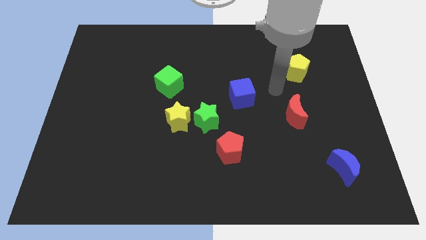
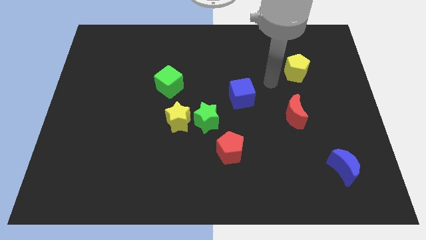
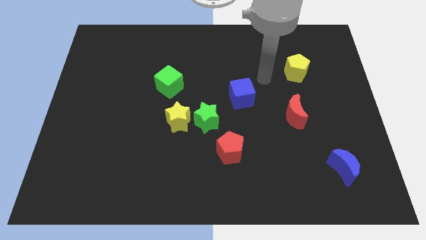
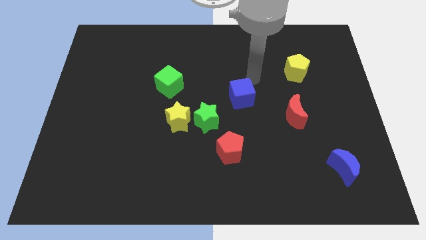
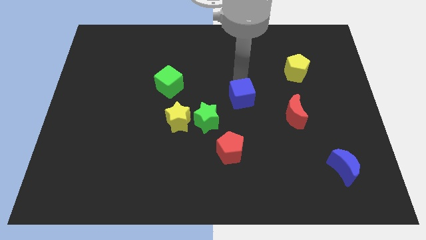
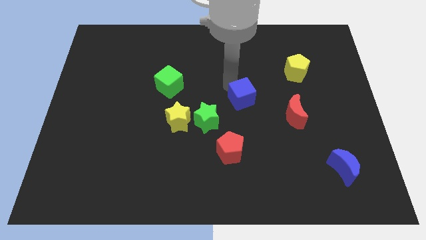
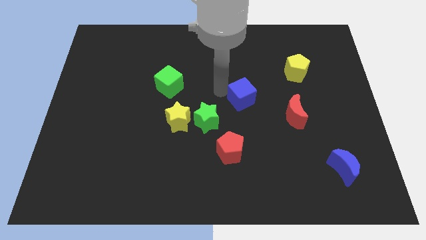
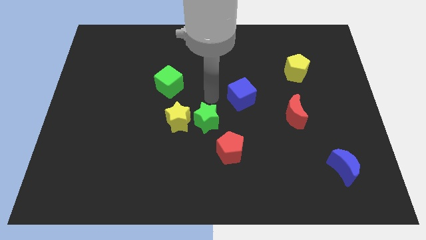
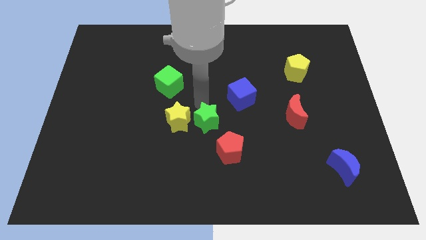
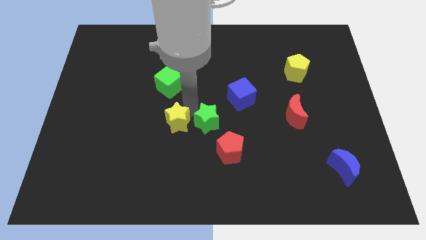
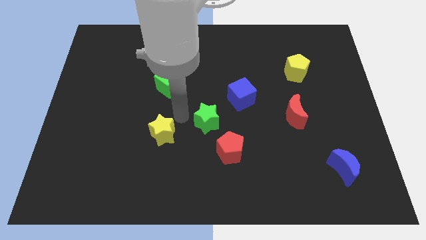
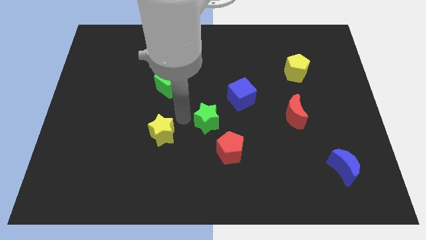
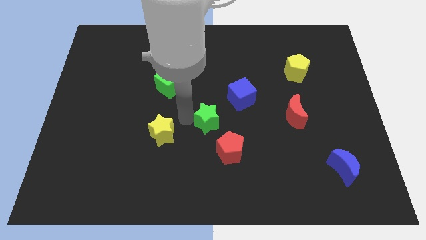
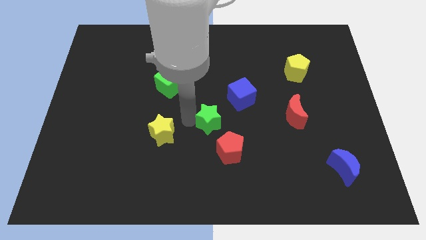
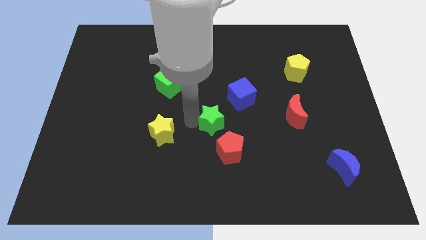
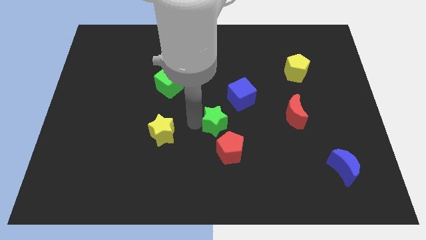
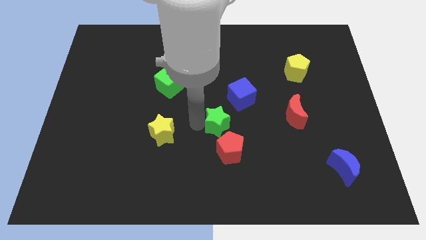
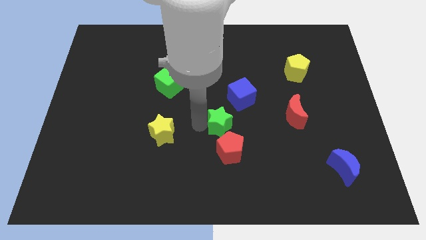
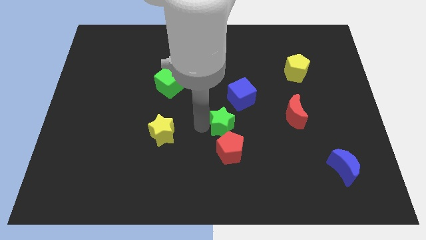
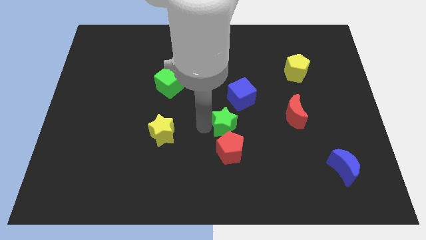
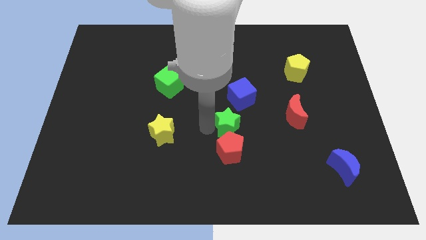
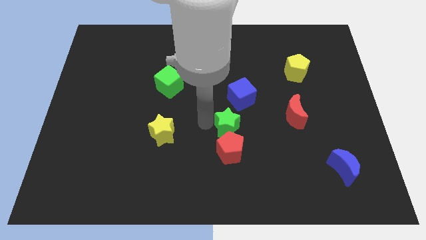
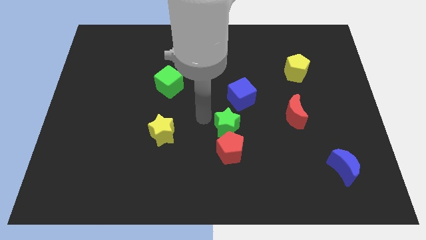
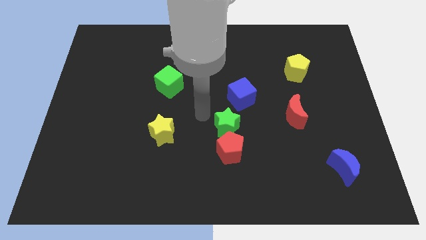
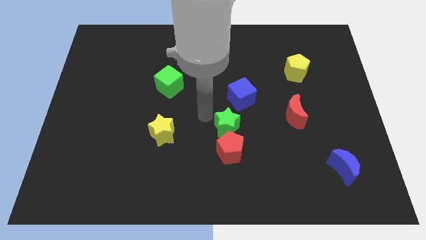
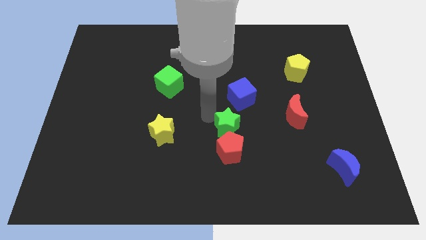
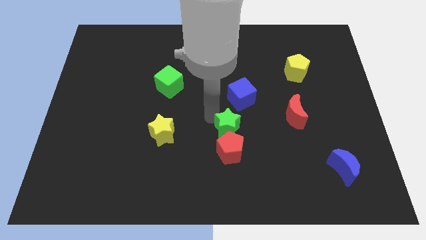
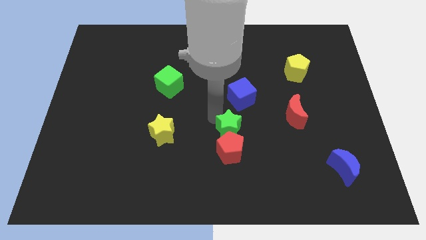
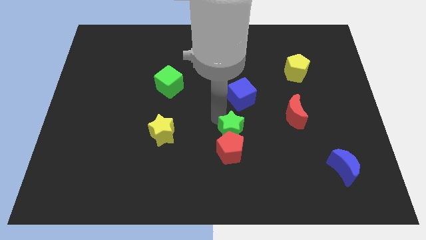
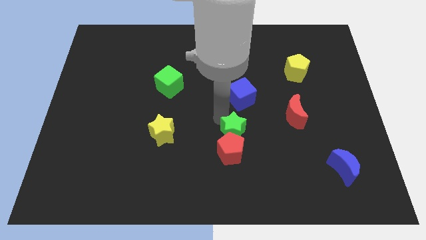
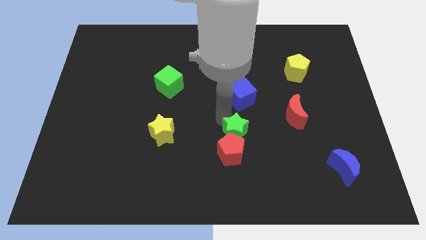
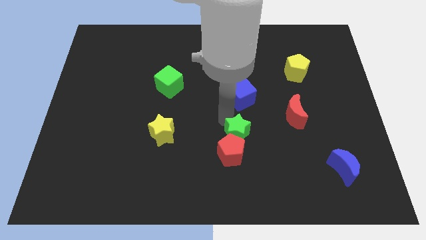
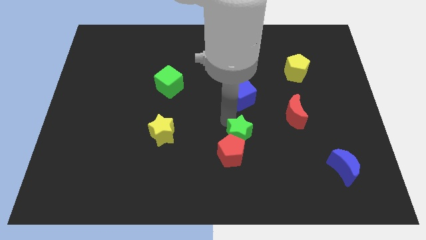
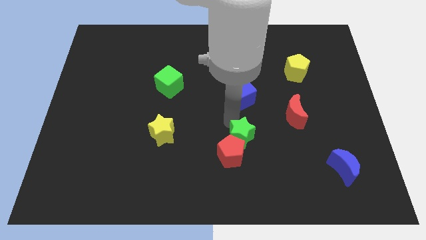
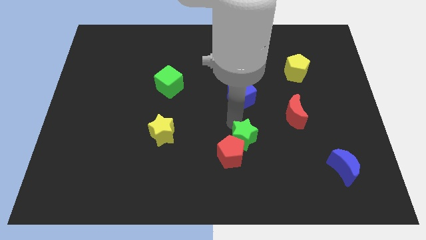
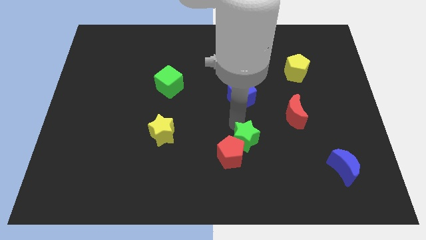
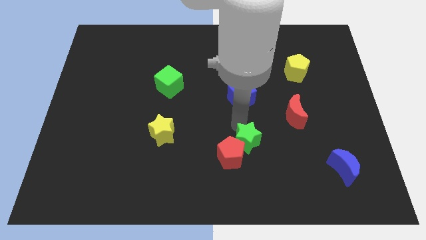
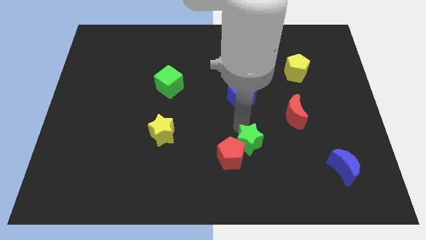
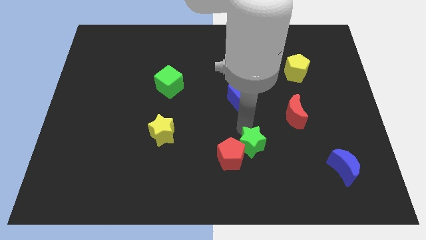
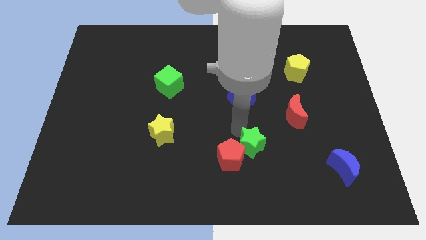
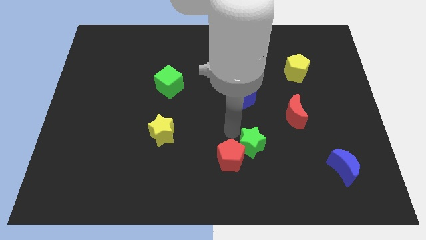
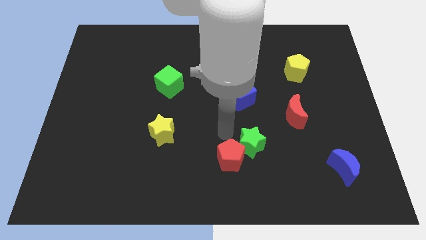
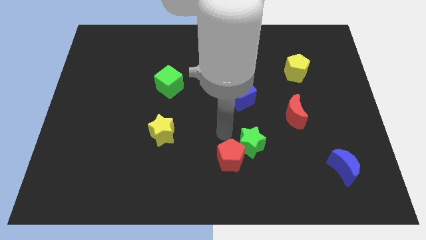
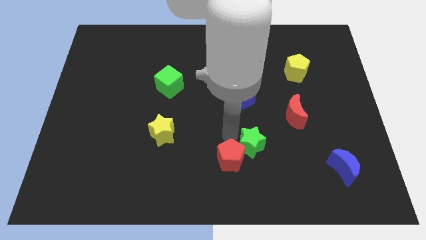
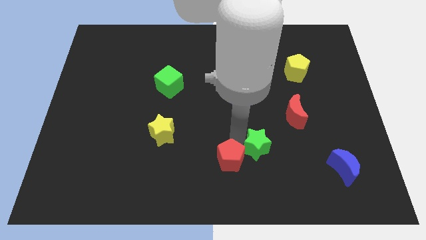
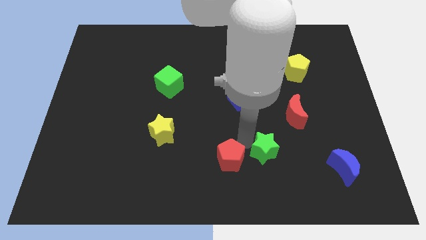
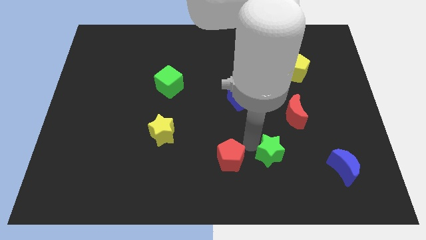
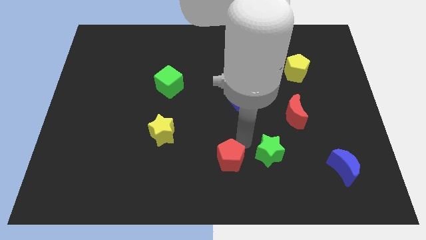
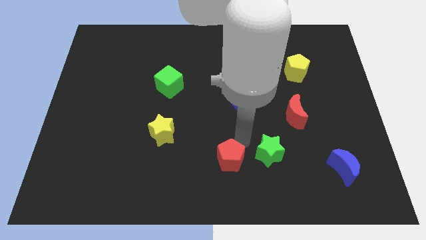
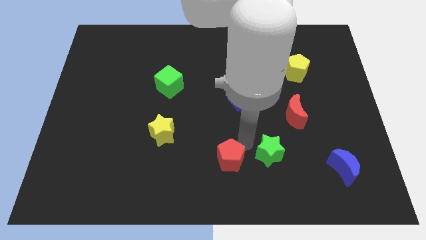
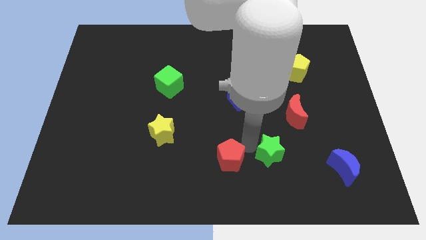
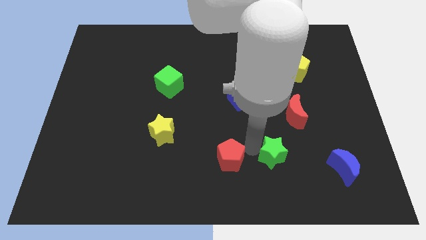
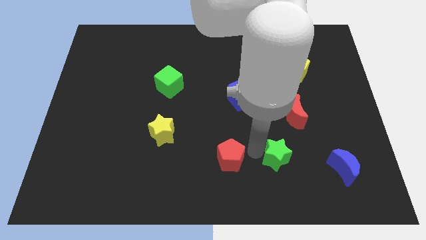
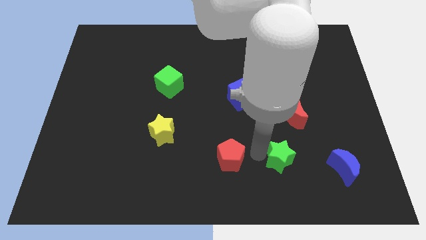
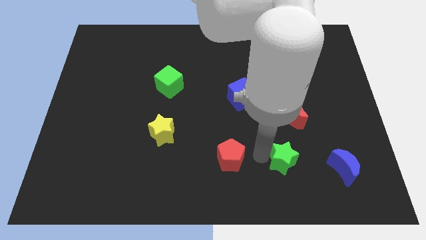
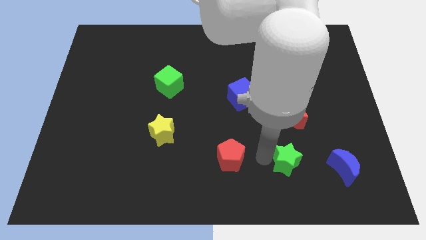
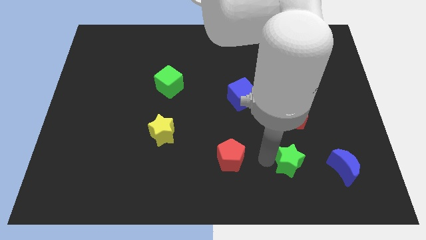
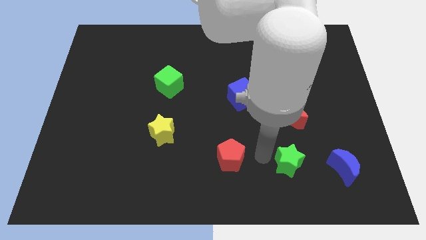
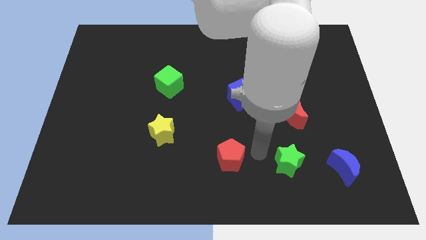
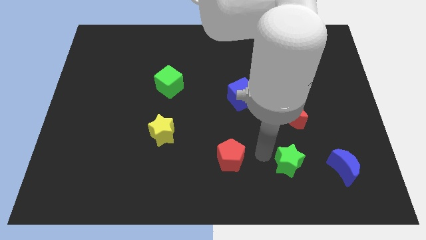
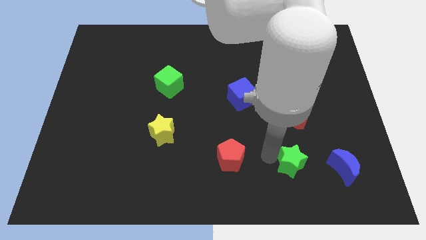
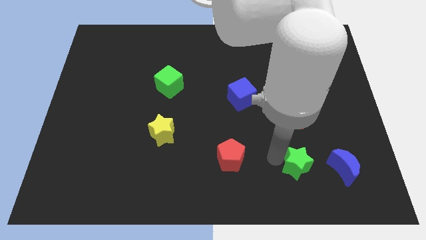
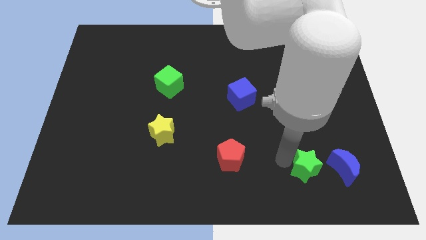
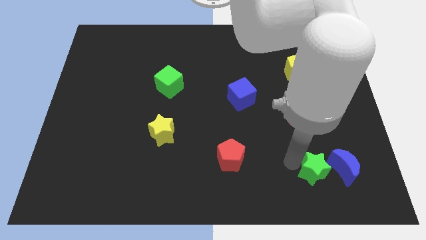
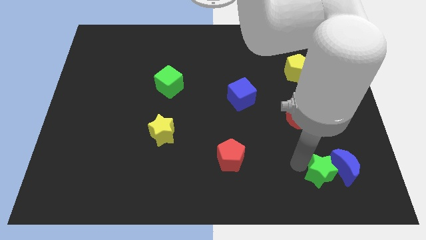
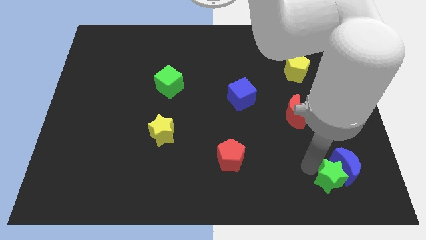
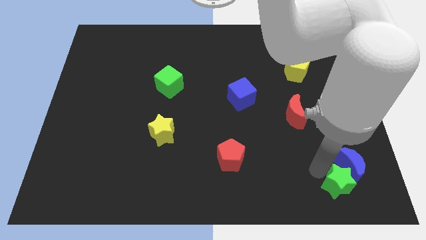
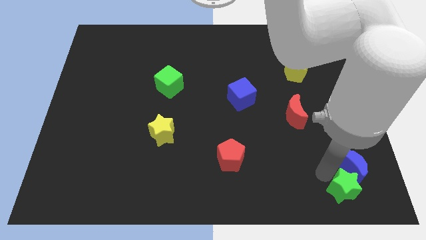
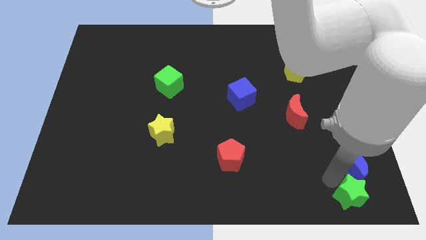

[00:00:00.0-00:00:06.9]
slide the green star to the bottom right of the board
